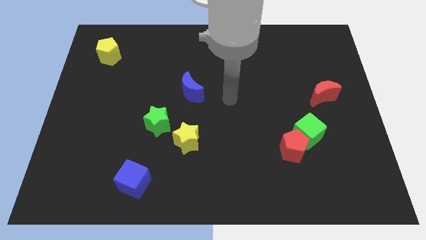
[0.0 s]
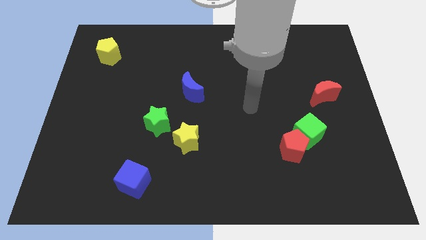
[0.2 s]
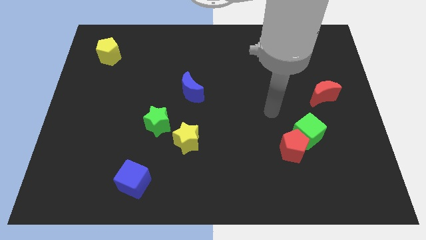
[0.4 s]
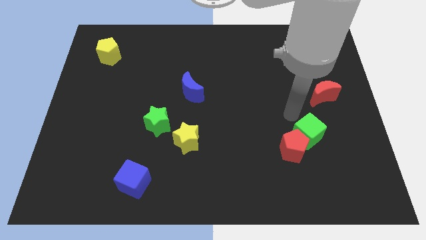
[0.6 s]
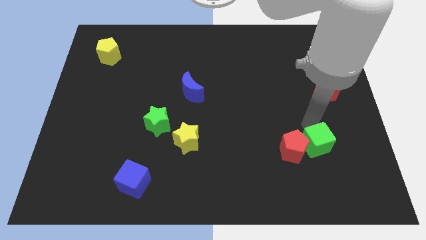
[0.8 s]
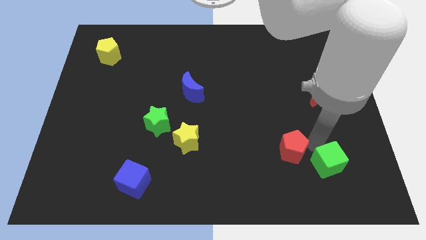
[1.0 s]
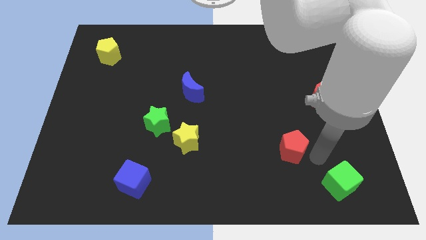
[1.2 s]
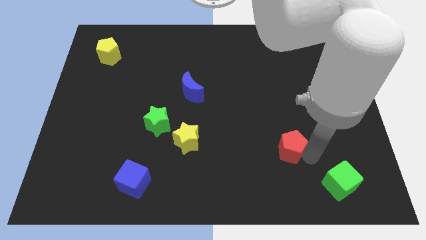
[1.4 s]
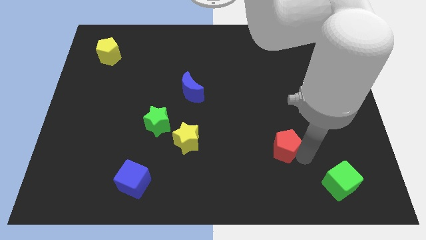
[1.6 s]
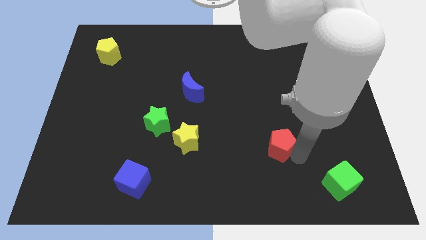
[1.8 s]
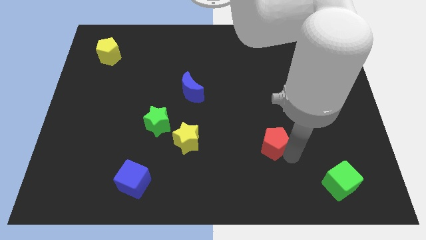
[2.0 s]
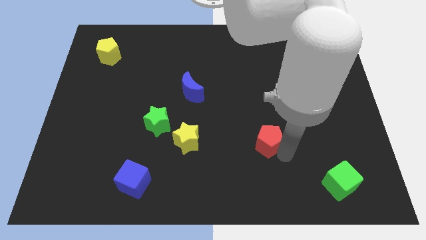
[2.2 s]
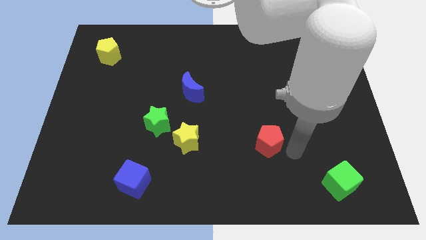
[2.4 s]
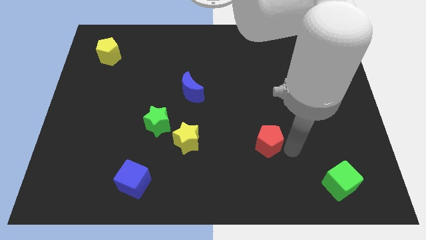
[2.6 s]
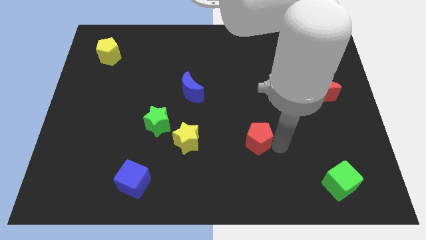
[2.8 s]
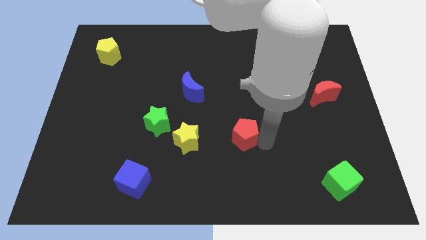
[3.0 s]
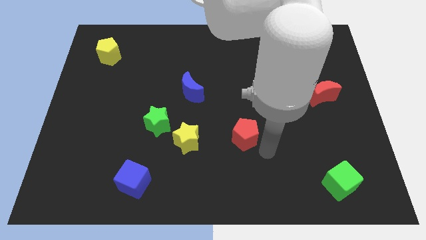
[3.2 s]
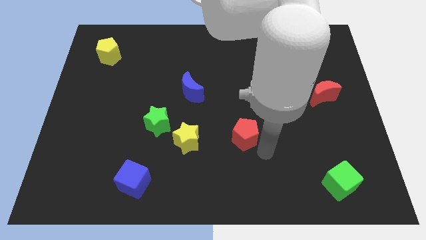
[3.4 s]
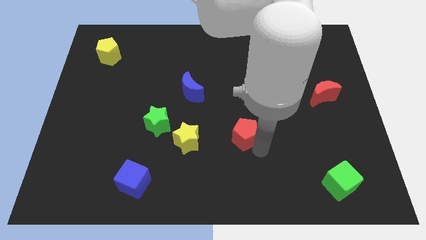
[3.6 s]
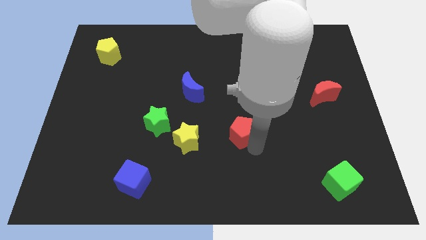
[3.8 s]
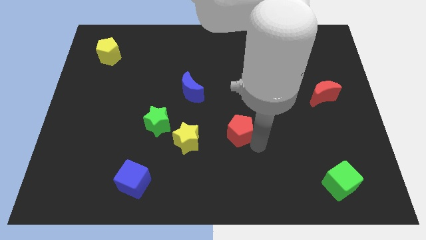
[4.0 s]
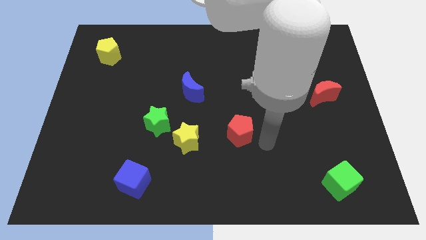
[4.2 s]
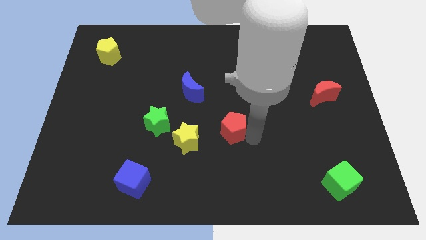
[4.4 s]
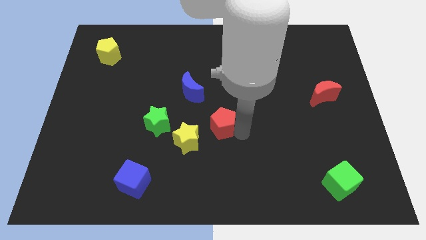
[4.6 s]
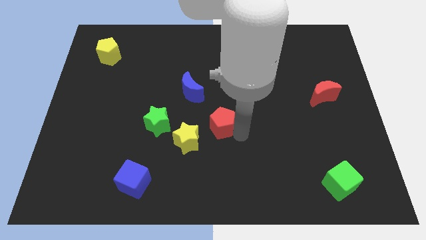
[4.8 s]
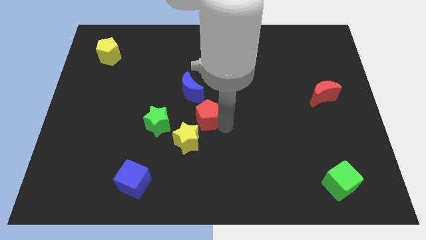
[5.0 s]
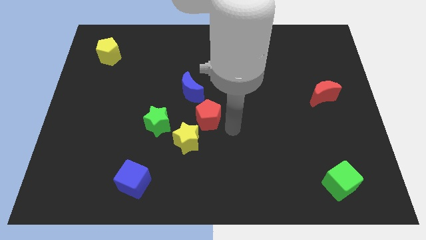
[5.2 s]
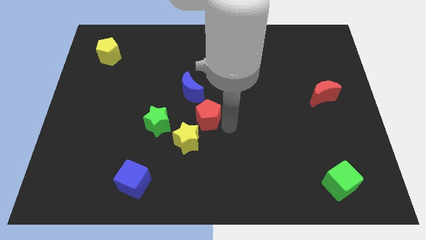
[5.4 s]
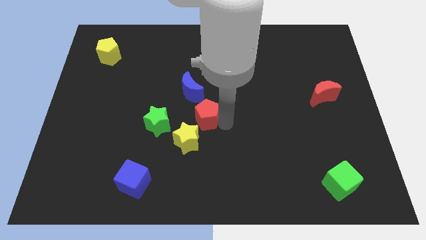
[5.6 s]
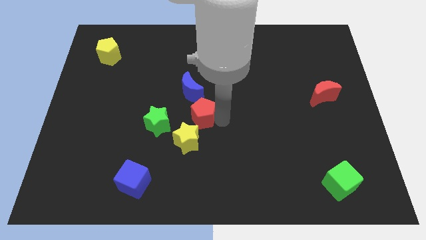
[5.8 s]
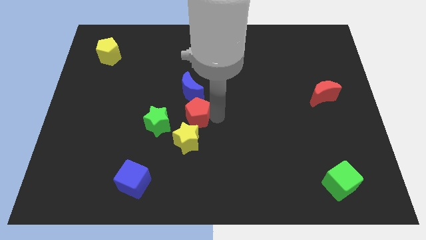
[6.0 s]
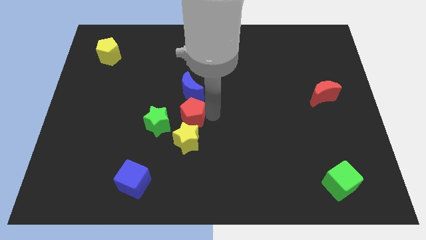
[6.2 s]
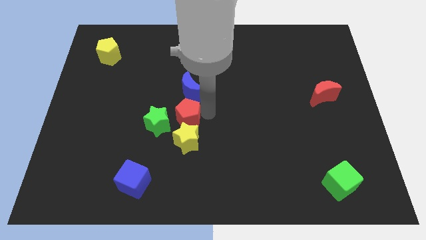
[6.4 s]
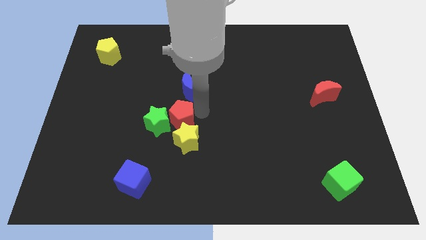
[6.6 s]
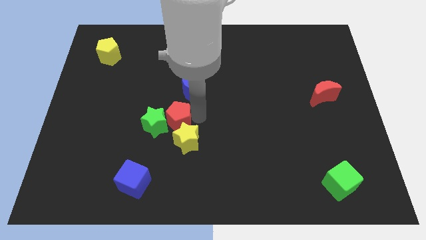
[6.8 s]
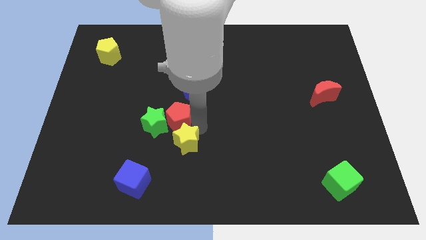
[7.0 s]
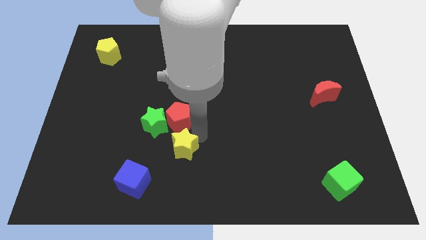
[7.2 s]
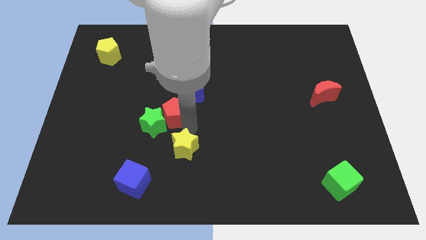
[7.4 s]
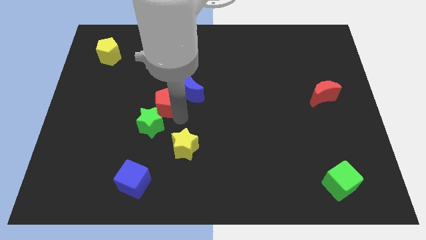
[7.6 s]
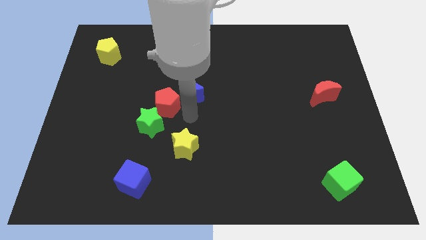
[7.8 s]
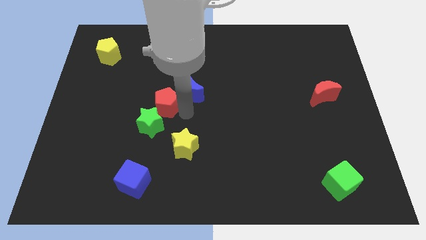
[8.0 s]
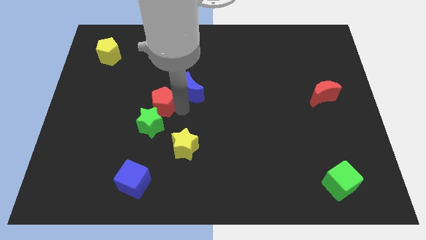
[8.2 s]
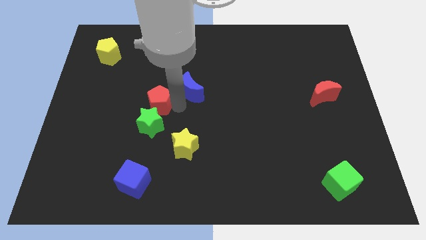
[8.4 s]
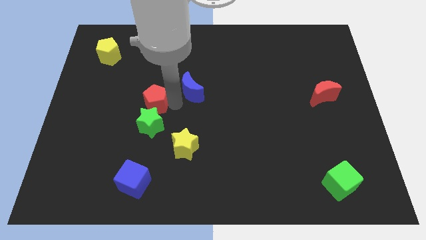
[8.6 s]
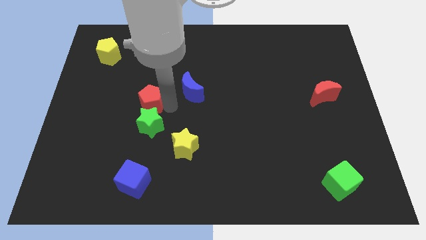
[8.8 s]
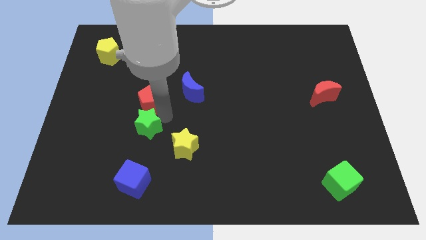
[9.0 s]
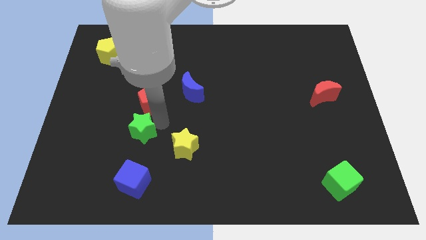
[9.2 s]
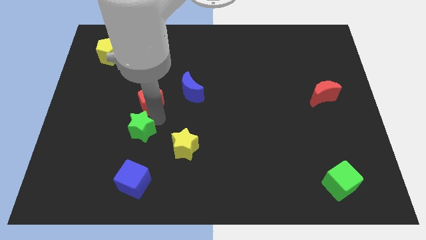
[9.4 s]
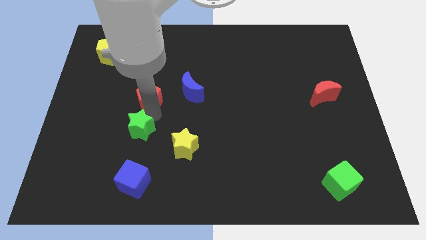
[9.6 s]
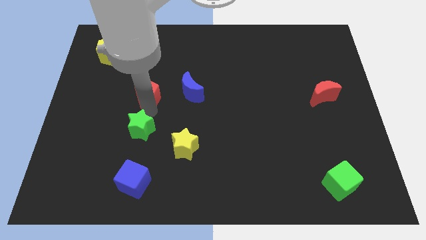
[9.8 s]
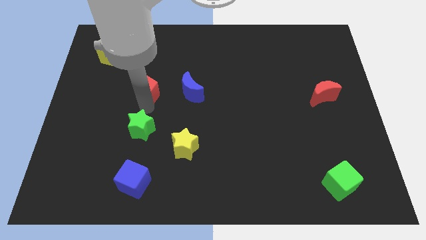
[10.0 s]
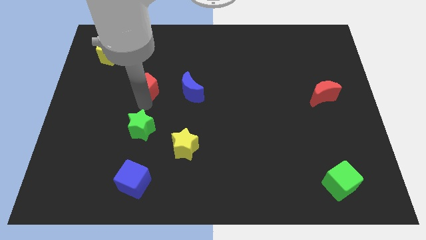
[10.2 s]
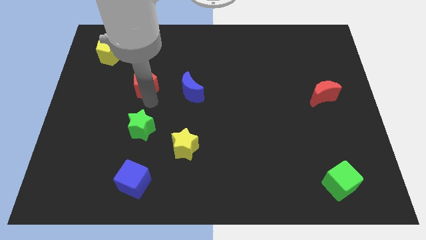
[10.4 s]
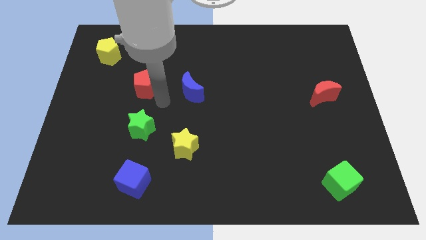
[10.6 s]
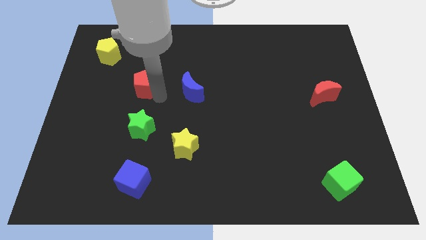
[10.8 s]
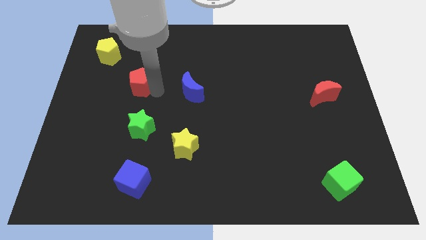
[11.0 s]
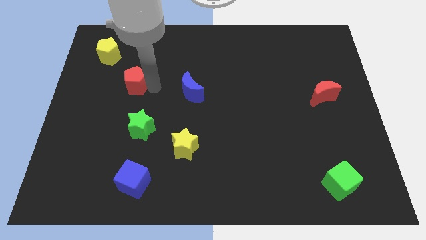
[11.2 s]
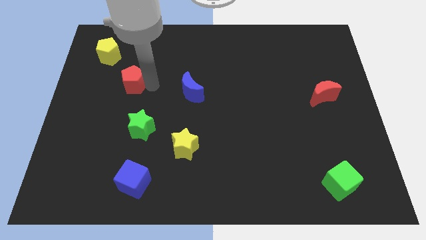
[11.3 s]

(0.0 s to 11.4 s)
move the red pentagon to the bottom right of the yellow pentagon

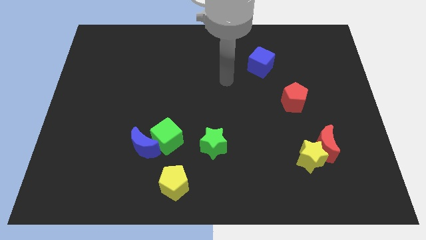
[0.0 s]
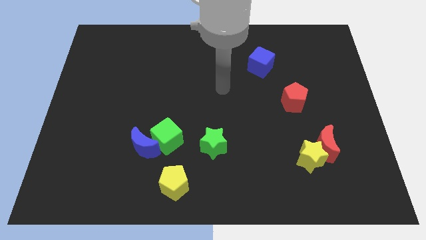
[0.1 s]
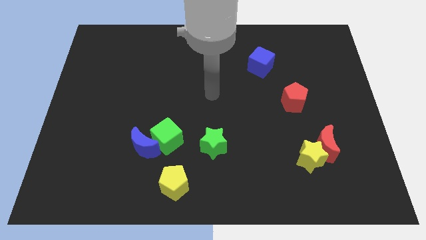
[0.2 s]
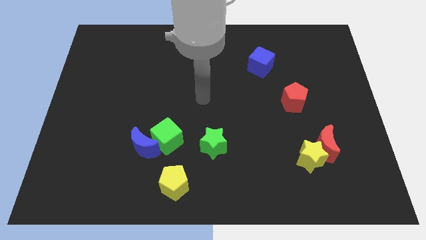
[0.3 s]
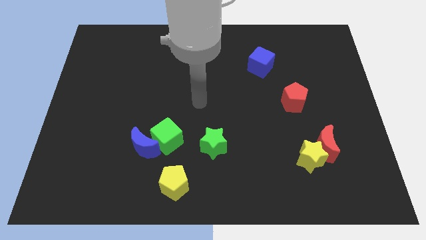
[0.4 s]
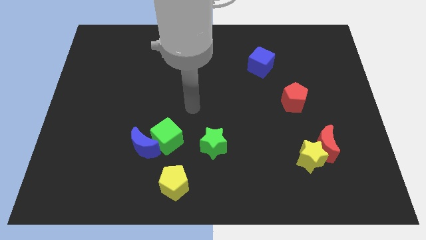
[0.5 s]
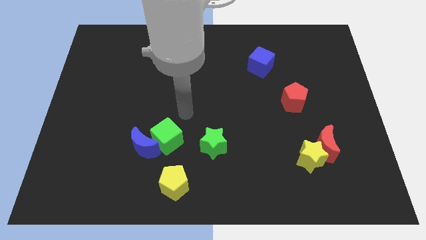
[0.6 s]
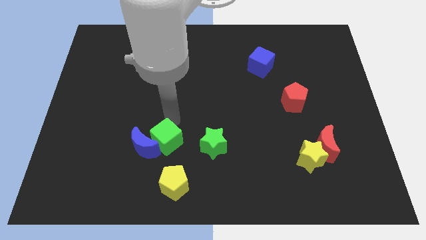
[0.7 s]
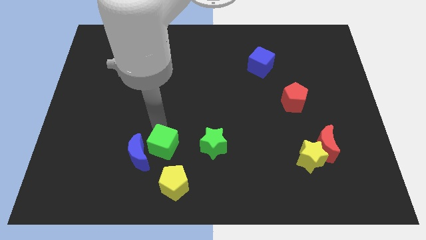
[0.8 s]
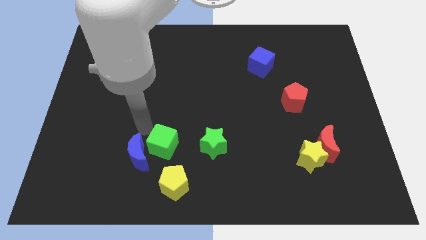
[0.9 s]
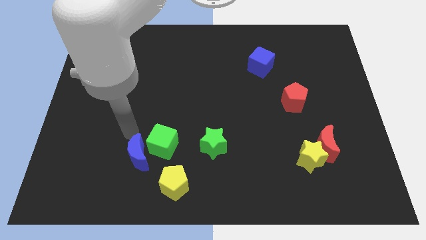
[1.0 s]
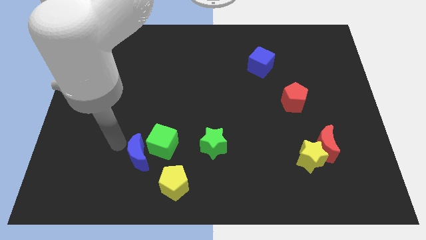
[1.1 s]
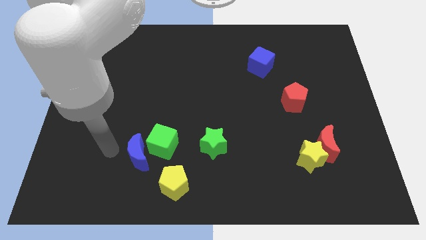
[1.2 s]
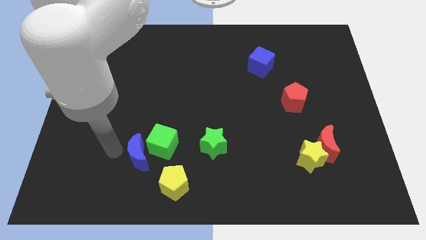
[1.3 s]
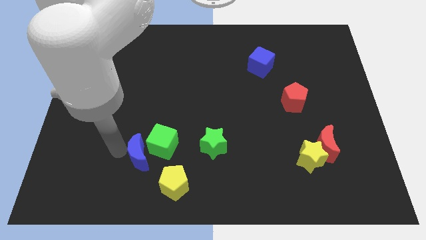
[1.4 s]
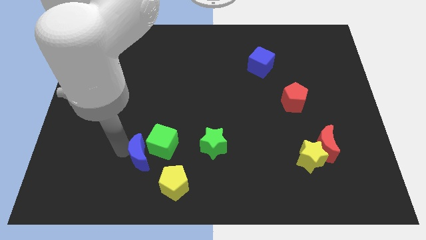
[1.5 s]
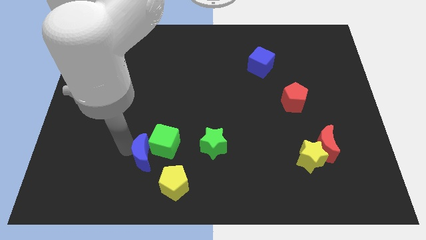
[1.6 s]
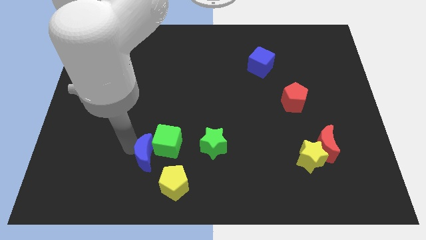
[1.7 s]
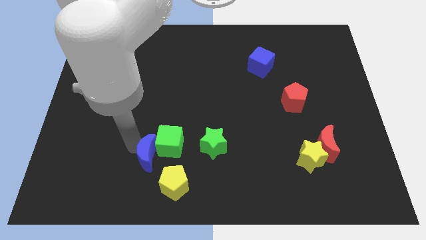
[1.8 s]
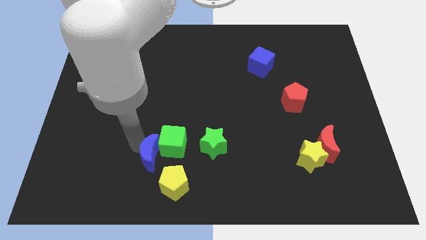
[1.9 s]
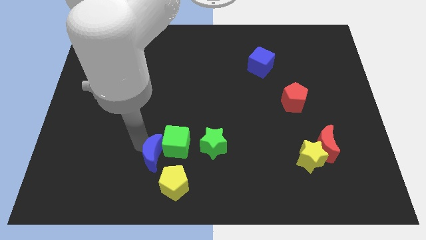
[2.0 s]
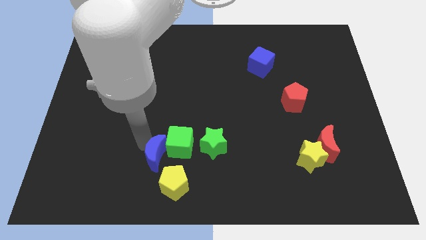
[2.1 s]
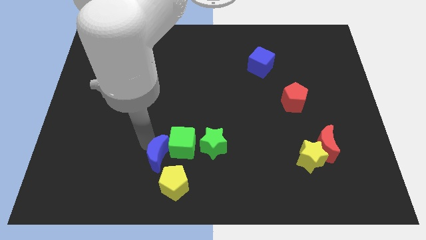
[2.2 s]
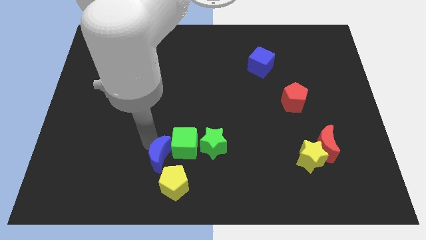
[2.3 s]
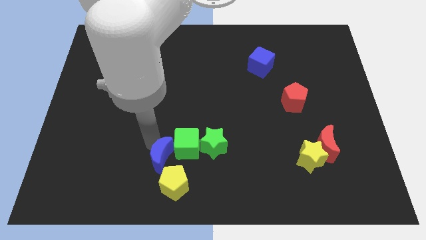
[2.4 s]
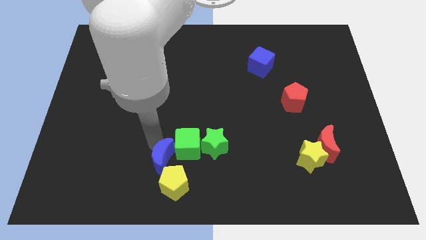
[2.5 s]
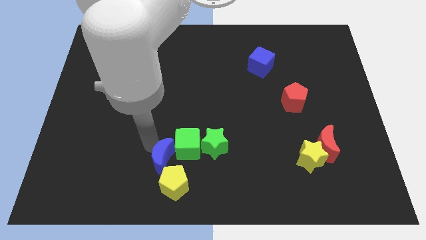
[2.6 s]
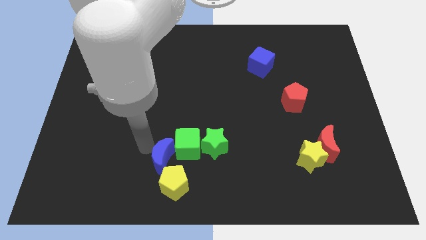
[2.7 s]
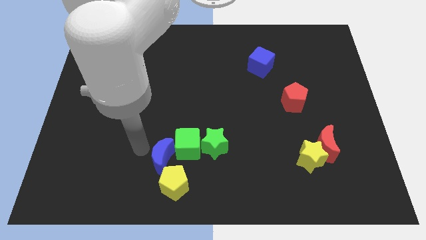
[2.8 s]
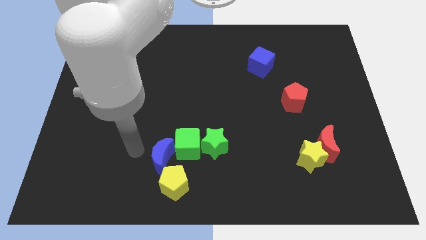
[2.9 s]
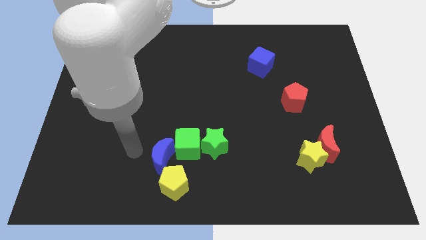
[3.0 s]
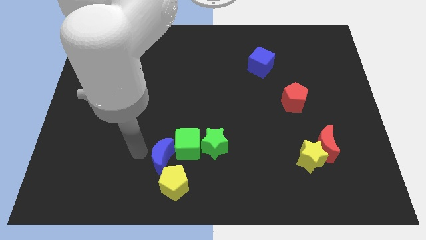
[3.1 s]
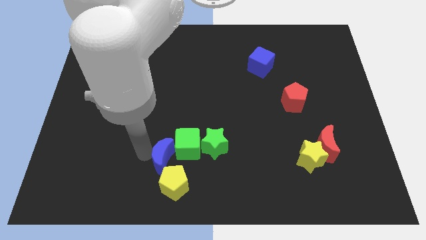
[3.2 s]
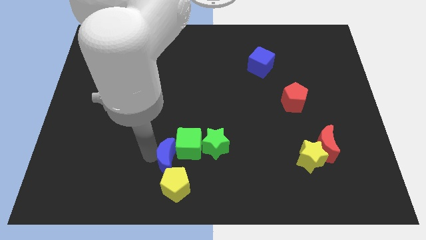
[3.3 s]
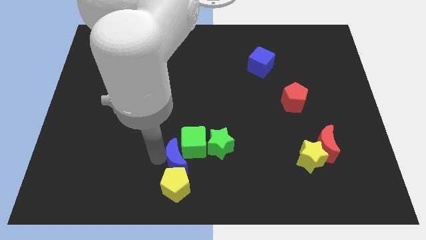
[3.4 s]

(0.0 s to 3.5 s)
move the blue moon diagonally up and to the right of the yellow pentagon
